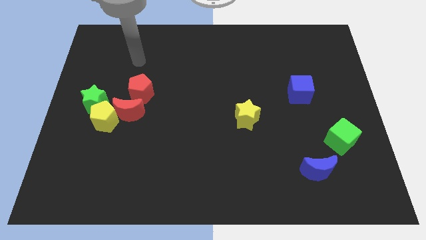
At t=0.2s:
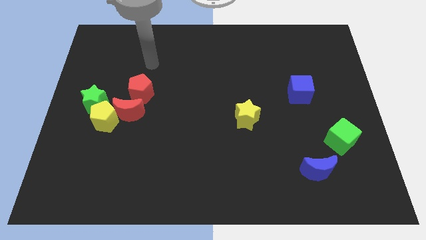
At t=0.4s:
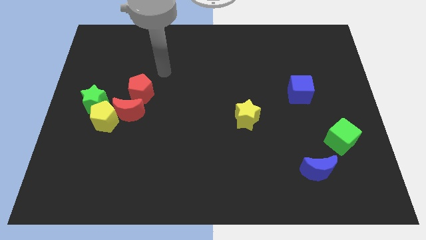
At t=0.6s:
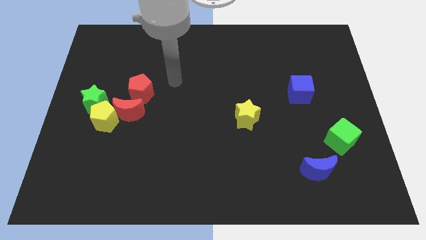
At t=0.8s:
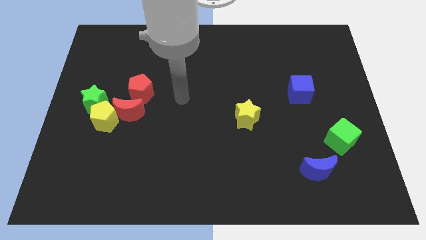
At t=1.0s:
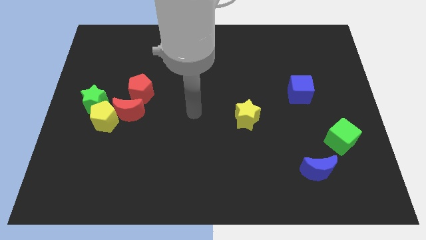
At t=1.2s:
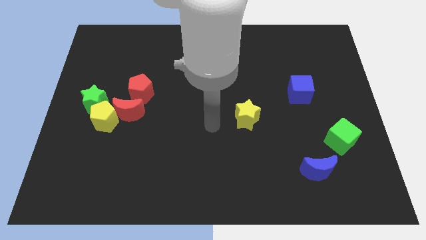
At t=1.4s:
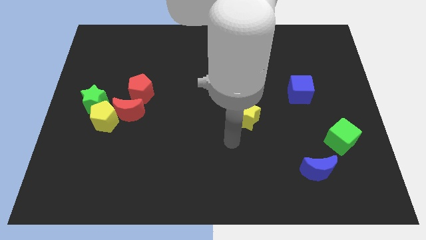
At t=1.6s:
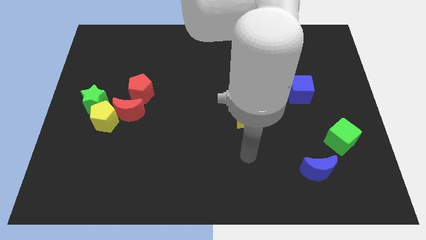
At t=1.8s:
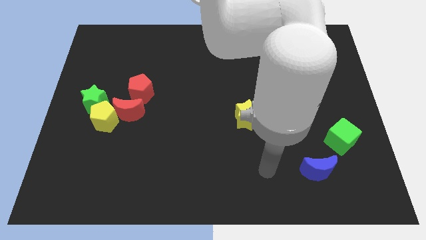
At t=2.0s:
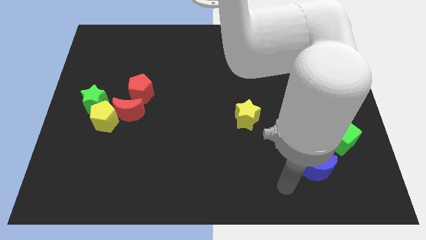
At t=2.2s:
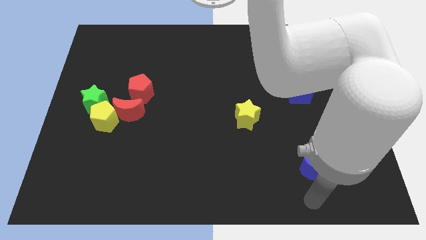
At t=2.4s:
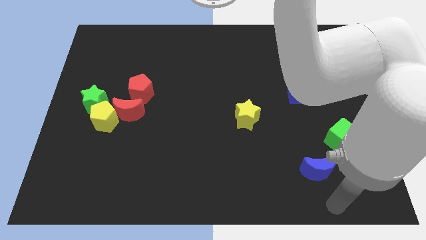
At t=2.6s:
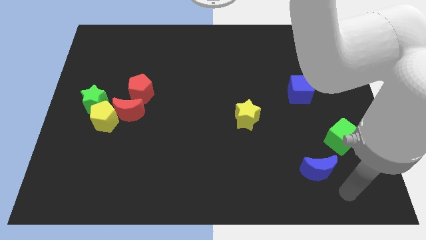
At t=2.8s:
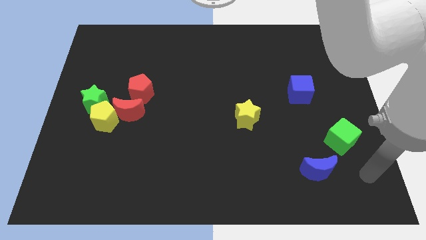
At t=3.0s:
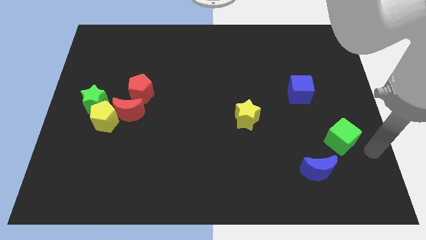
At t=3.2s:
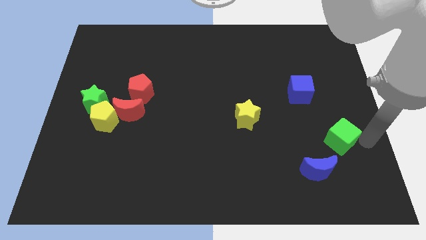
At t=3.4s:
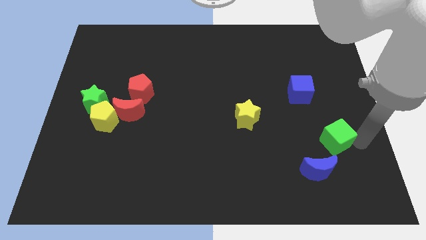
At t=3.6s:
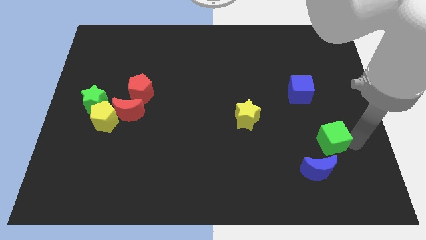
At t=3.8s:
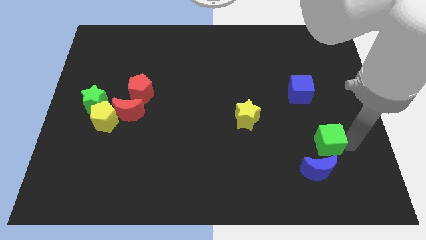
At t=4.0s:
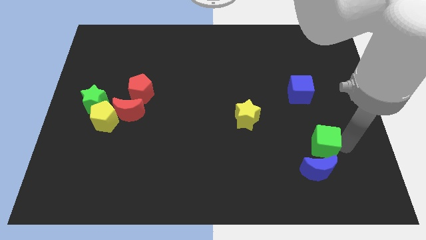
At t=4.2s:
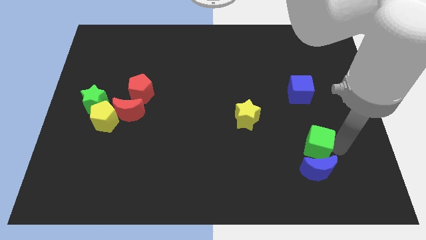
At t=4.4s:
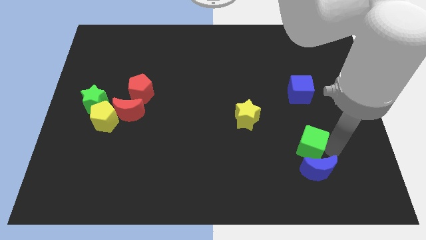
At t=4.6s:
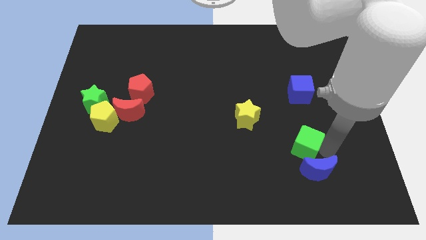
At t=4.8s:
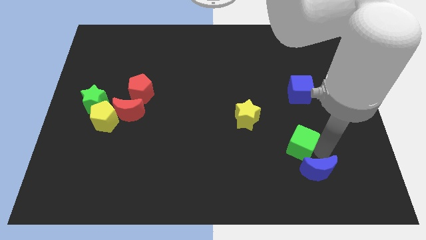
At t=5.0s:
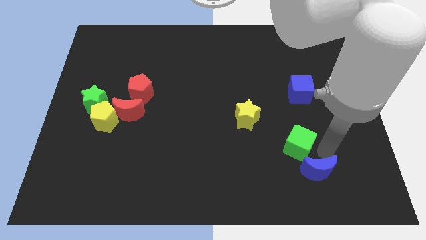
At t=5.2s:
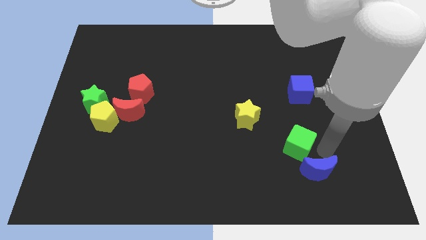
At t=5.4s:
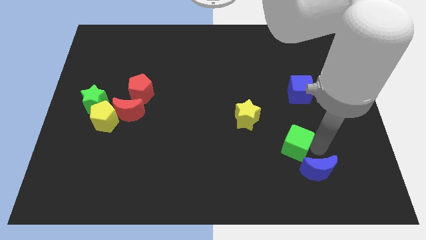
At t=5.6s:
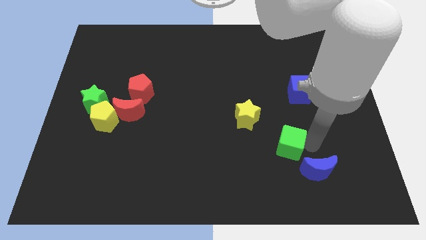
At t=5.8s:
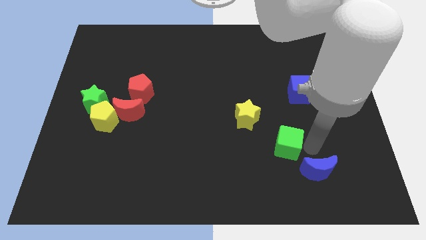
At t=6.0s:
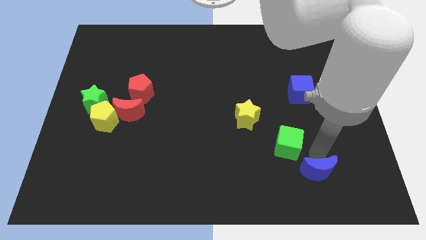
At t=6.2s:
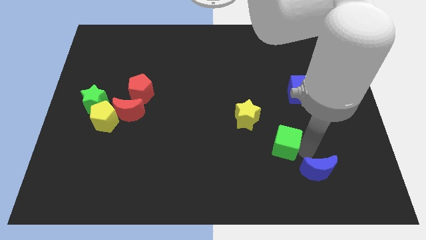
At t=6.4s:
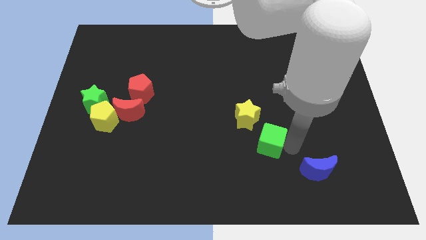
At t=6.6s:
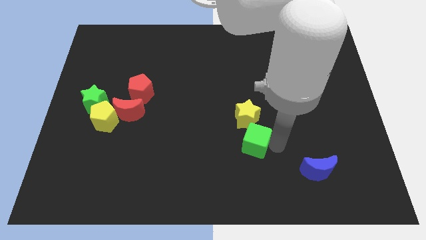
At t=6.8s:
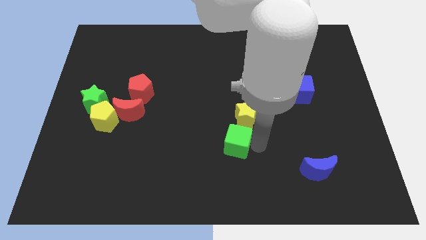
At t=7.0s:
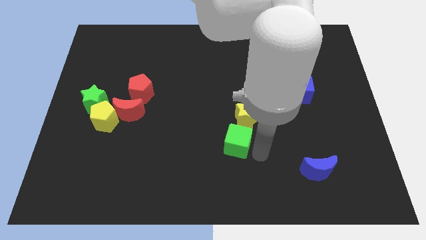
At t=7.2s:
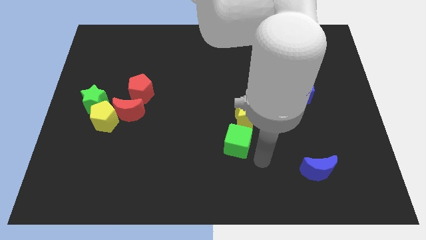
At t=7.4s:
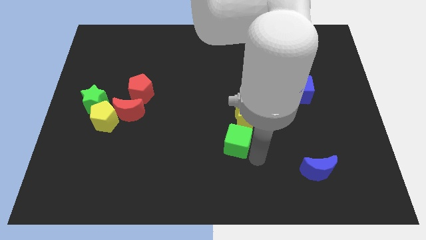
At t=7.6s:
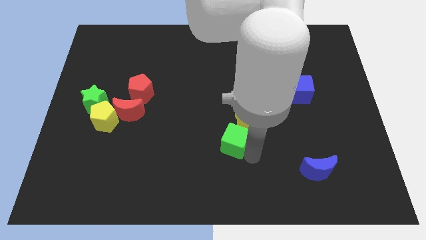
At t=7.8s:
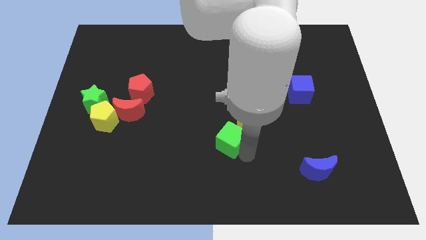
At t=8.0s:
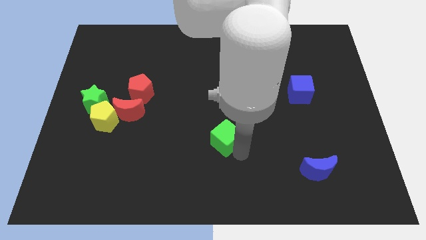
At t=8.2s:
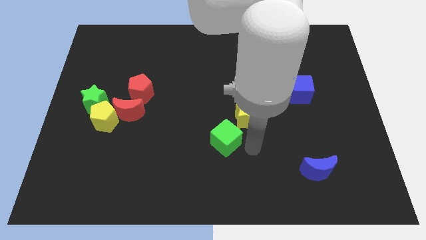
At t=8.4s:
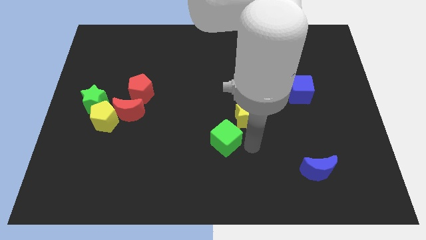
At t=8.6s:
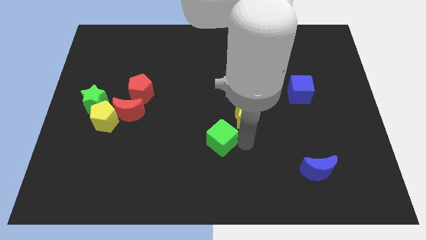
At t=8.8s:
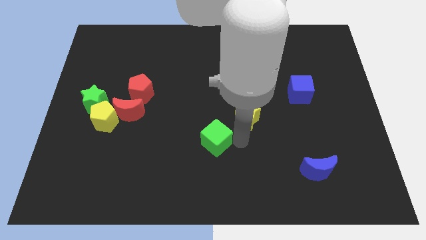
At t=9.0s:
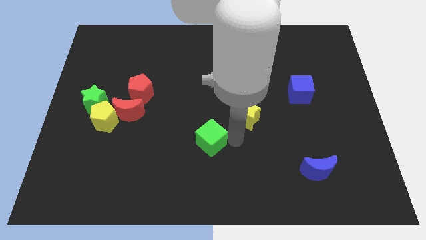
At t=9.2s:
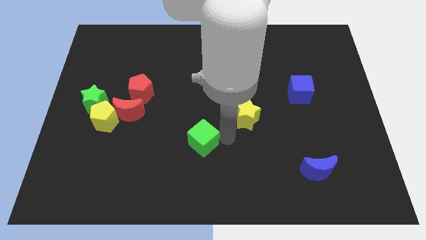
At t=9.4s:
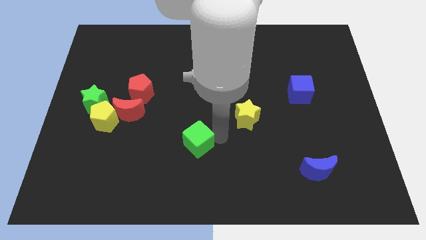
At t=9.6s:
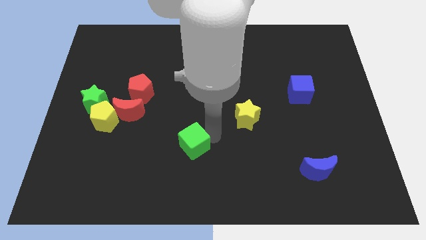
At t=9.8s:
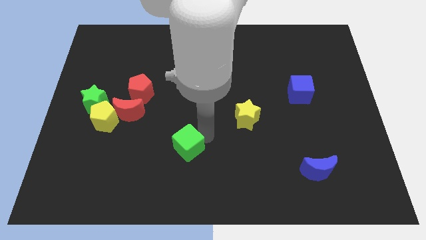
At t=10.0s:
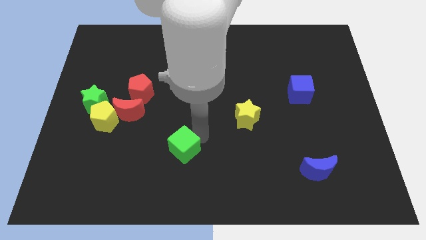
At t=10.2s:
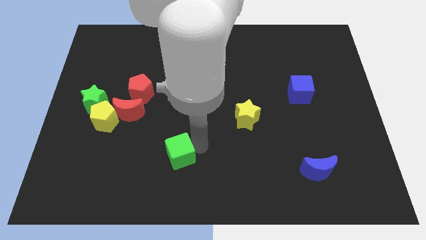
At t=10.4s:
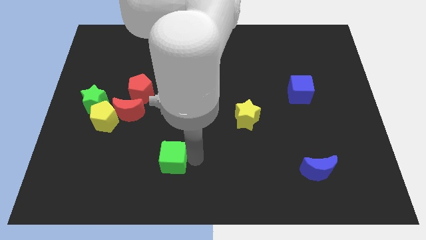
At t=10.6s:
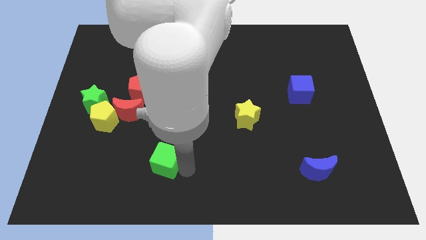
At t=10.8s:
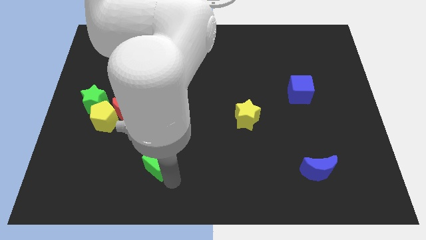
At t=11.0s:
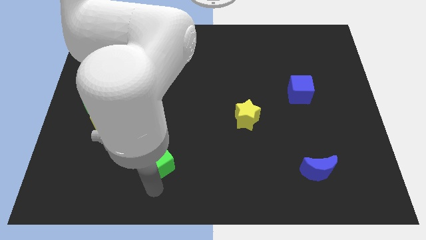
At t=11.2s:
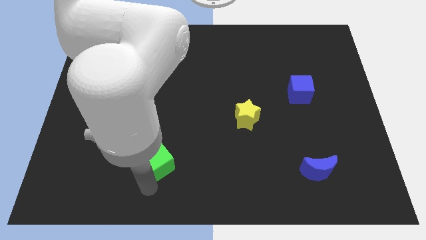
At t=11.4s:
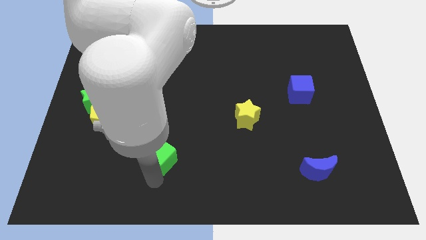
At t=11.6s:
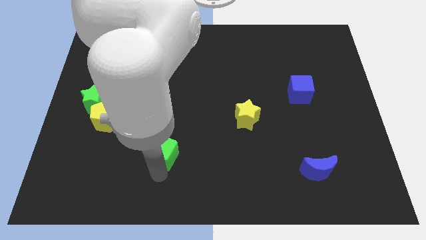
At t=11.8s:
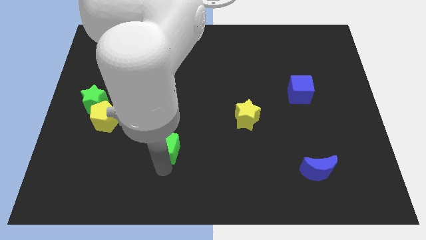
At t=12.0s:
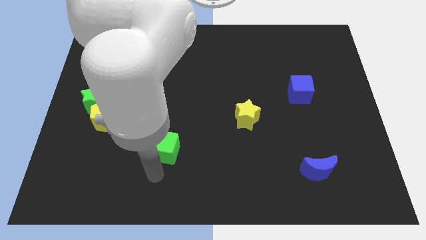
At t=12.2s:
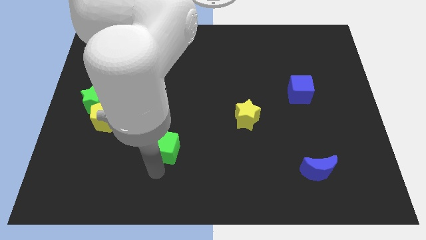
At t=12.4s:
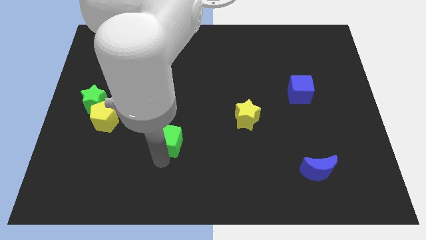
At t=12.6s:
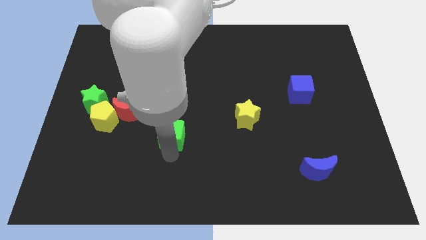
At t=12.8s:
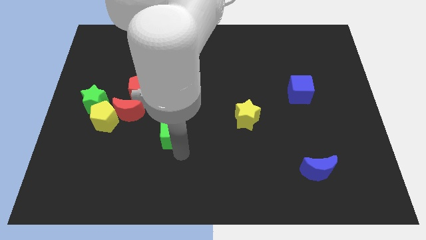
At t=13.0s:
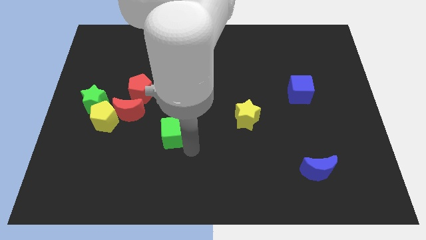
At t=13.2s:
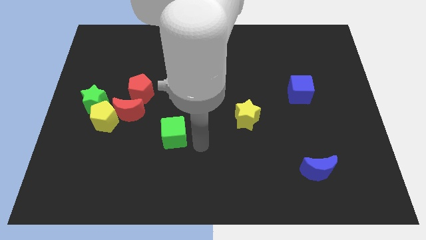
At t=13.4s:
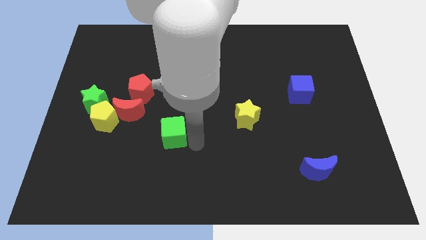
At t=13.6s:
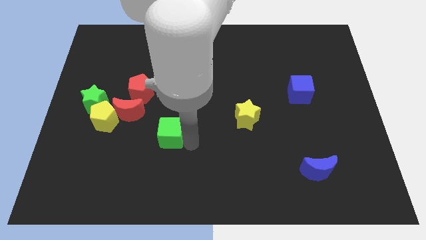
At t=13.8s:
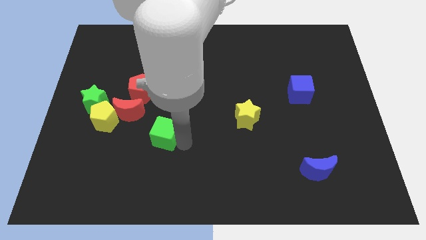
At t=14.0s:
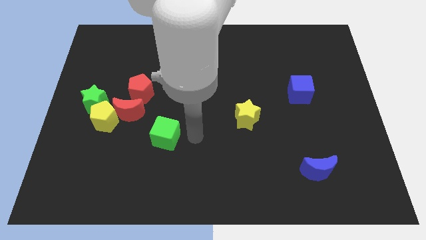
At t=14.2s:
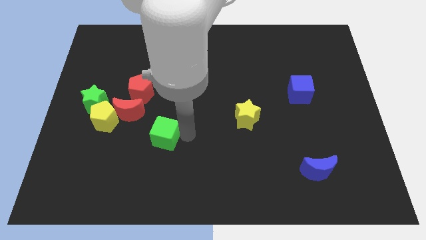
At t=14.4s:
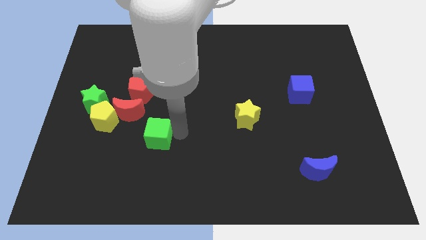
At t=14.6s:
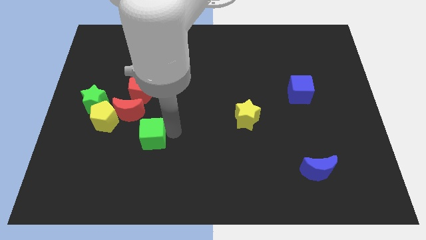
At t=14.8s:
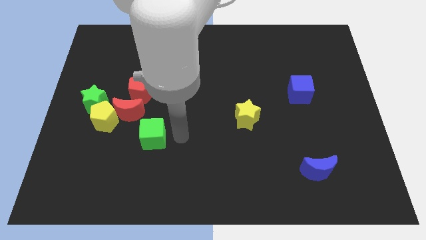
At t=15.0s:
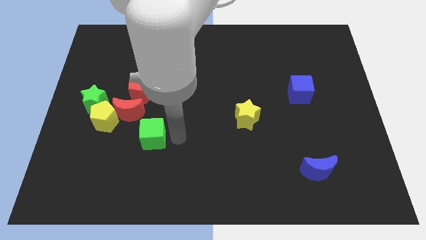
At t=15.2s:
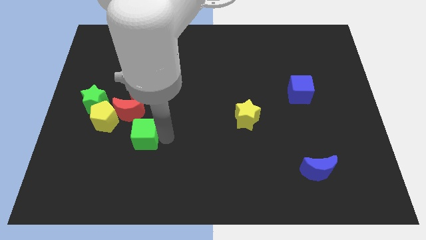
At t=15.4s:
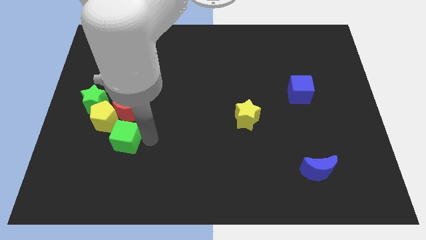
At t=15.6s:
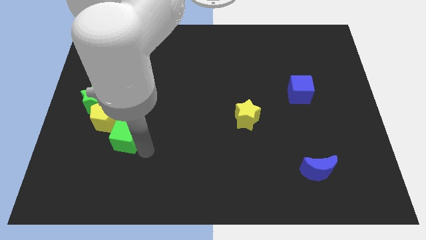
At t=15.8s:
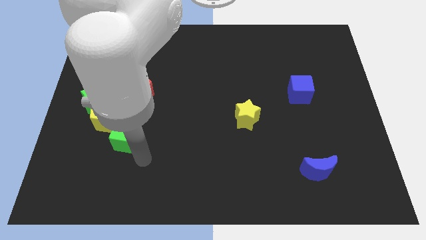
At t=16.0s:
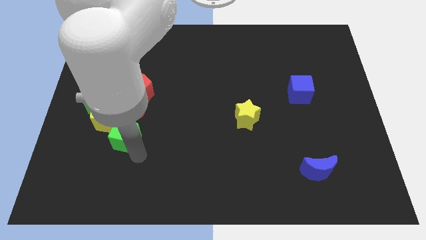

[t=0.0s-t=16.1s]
push the green cube to the bottom right of the green star
